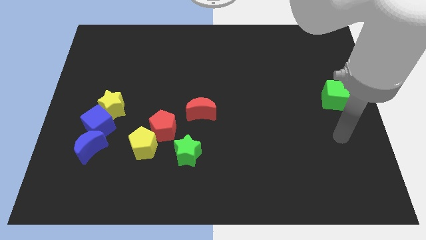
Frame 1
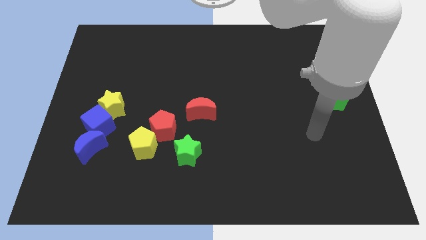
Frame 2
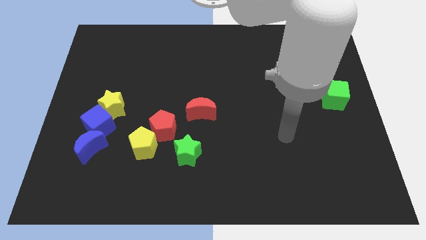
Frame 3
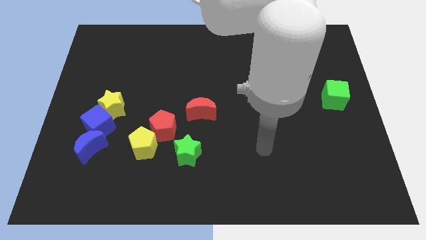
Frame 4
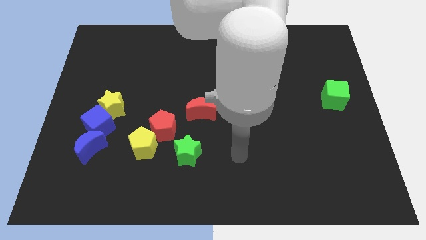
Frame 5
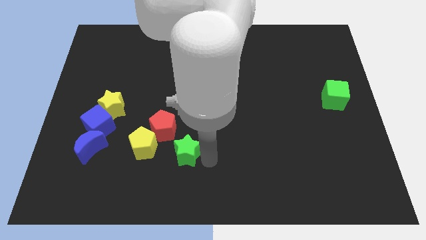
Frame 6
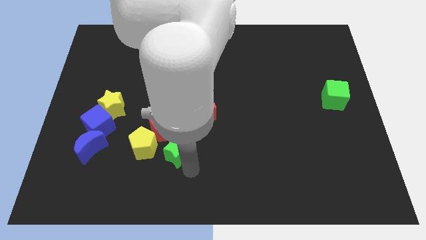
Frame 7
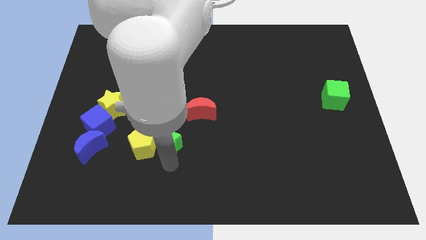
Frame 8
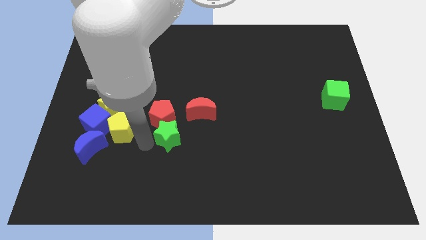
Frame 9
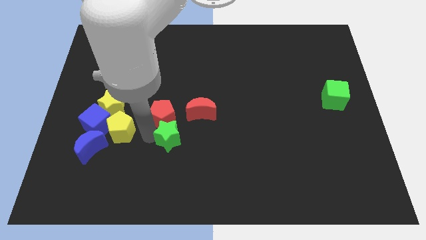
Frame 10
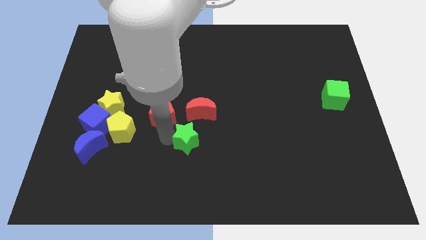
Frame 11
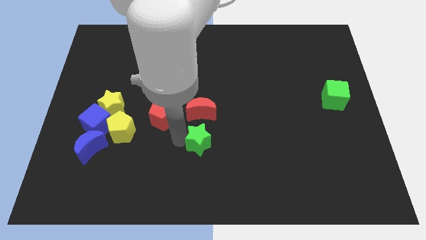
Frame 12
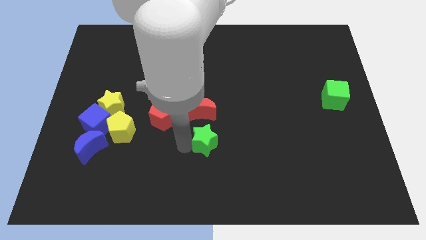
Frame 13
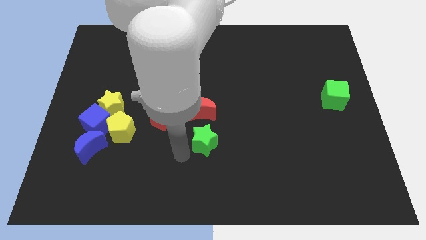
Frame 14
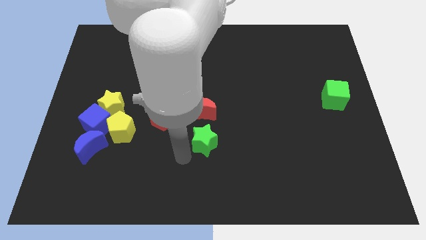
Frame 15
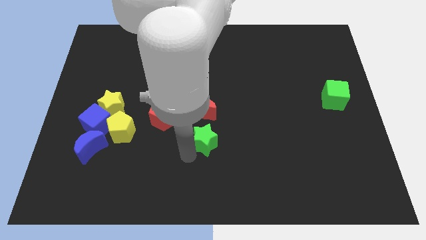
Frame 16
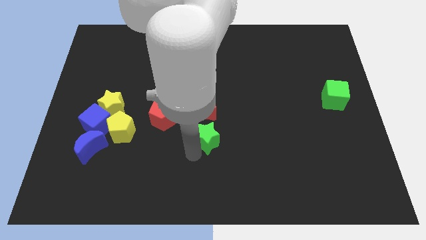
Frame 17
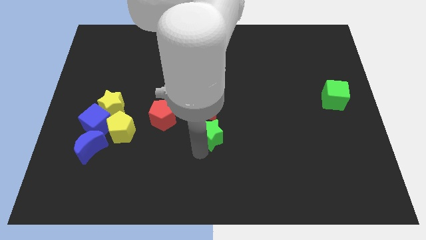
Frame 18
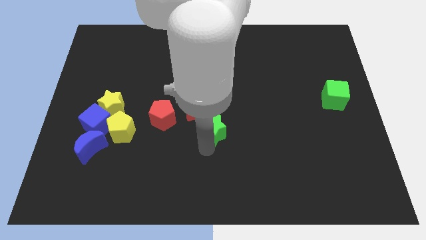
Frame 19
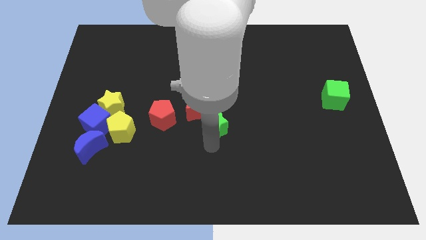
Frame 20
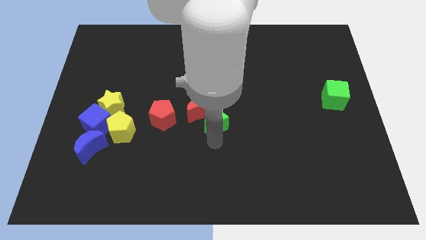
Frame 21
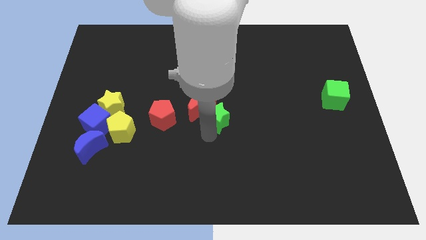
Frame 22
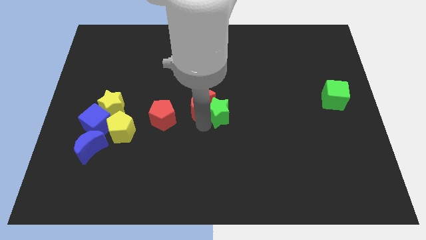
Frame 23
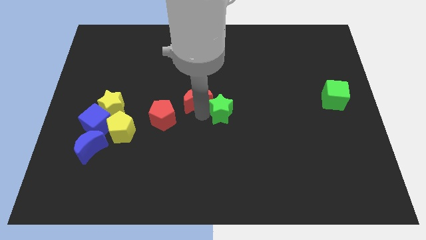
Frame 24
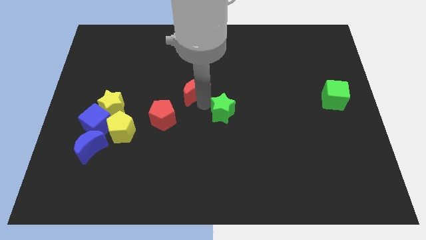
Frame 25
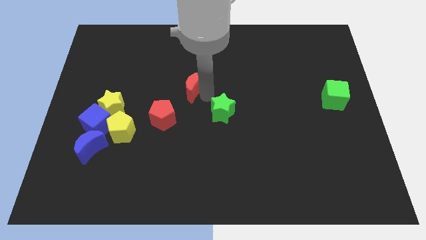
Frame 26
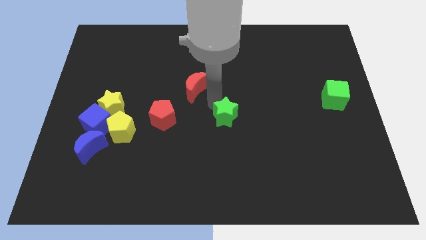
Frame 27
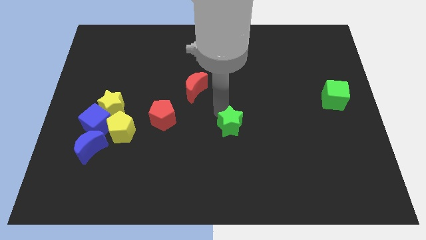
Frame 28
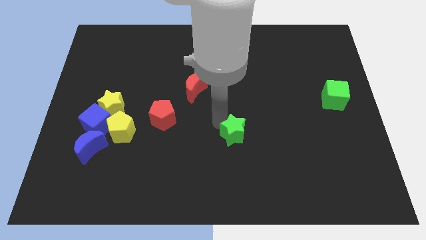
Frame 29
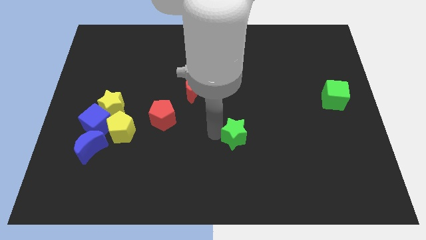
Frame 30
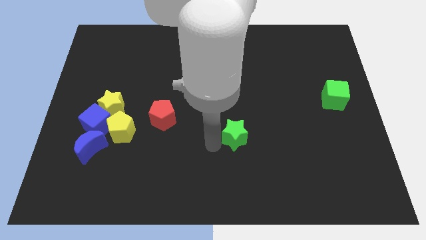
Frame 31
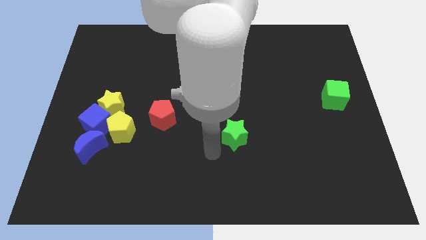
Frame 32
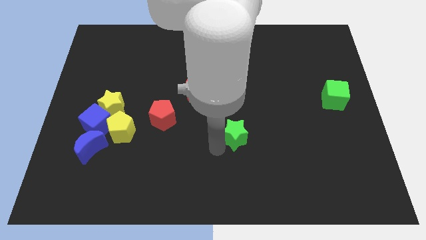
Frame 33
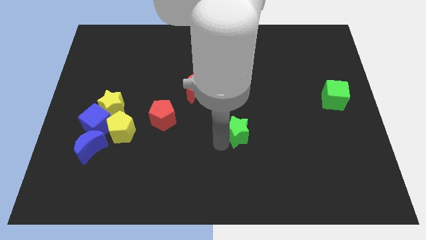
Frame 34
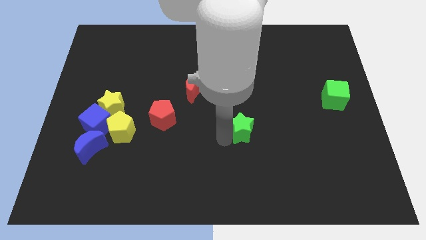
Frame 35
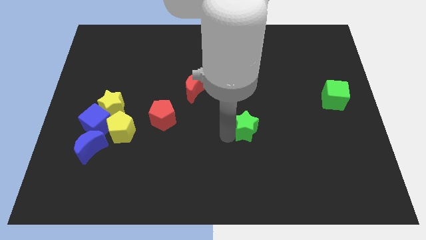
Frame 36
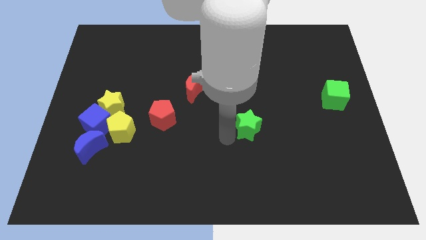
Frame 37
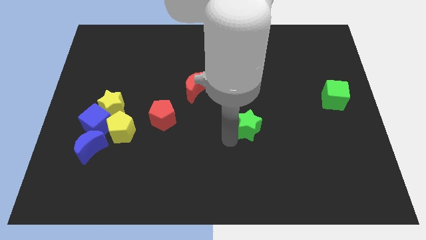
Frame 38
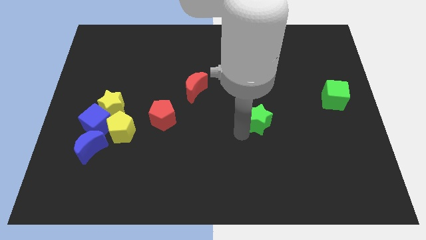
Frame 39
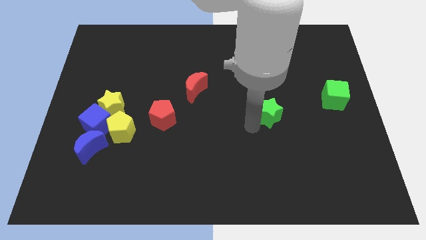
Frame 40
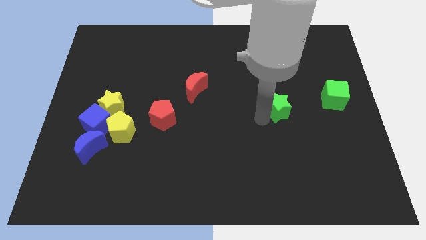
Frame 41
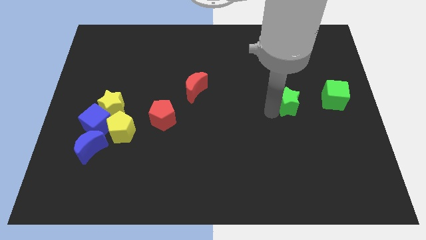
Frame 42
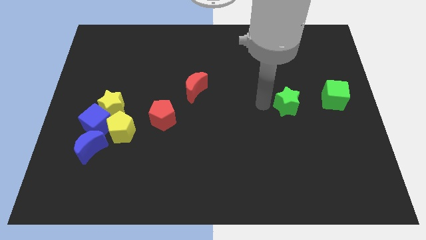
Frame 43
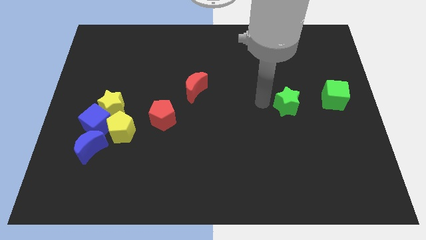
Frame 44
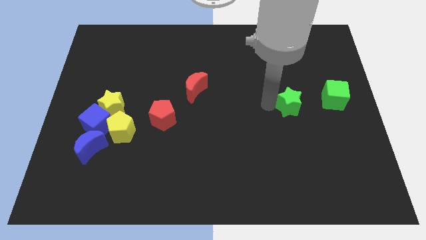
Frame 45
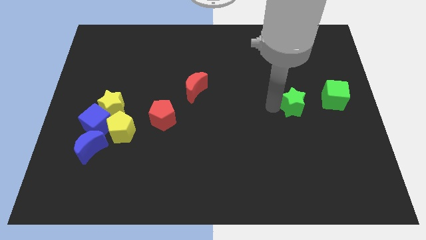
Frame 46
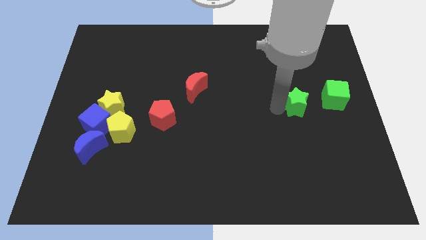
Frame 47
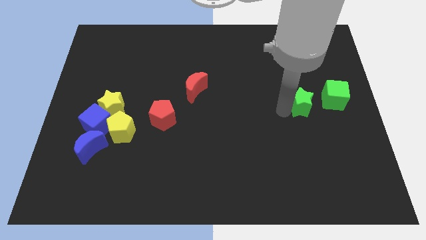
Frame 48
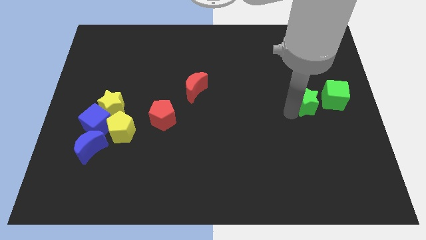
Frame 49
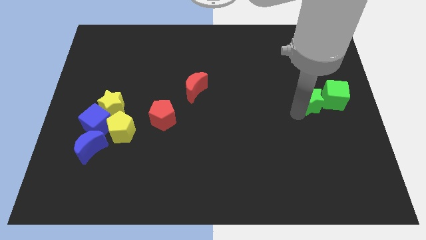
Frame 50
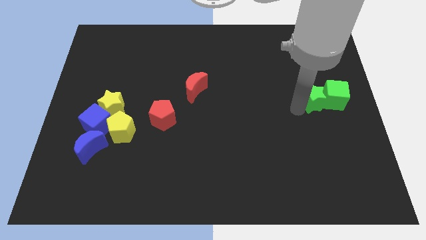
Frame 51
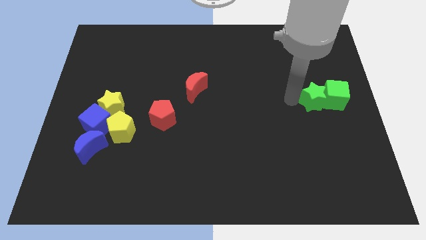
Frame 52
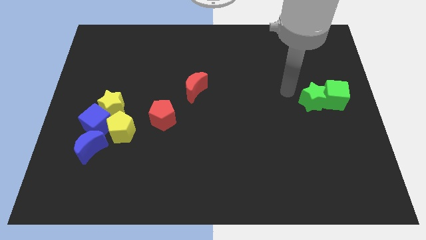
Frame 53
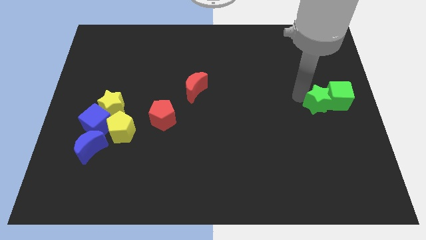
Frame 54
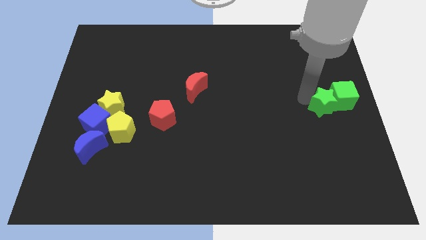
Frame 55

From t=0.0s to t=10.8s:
put the green star to the center right

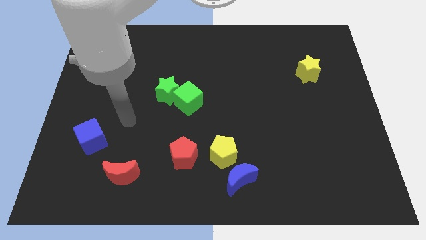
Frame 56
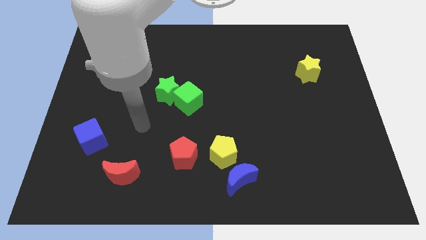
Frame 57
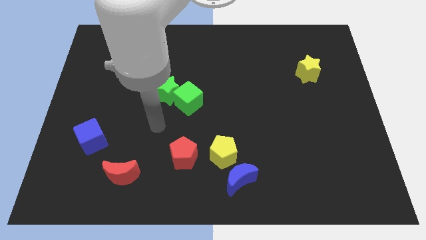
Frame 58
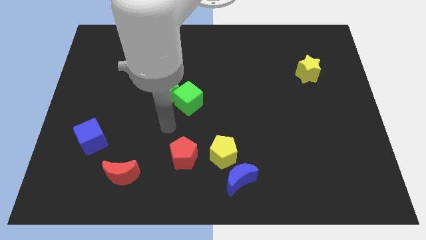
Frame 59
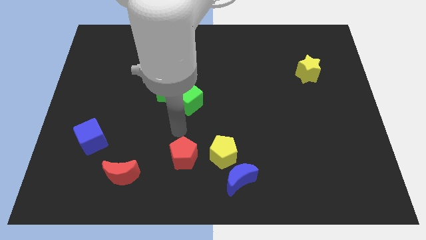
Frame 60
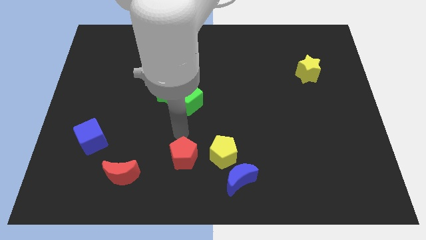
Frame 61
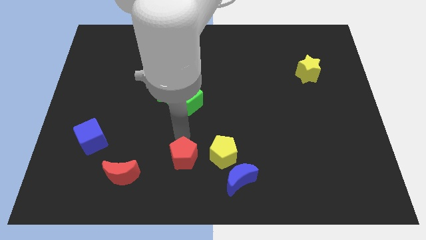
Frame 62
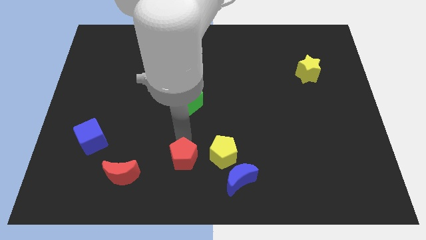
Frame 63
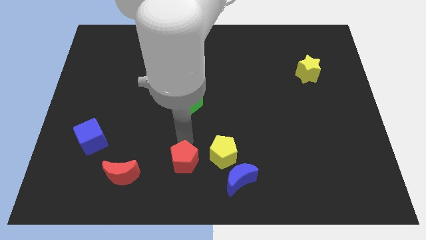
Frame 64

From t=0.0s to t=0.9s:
slide the red pentagon to the bottom side
